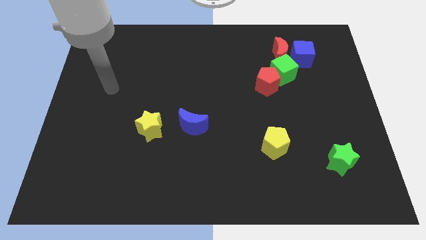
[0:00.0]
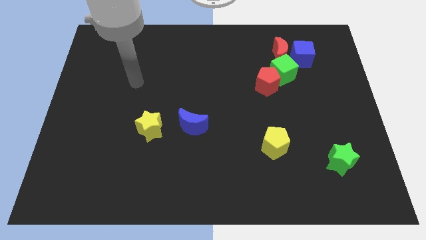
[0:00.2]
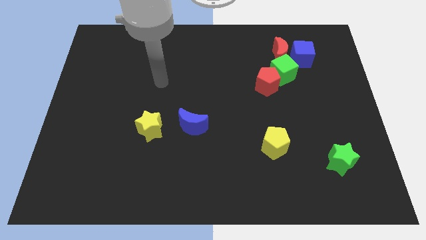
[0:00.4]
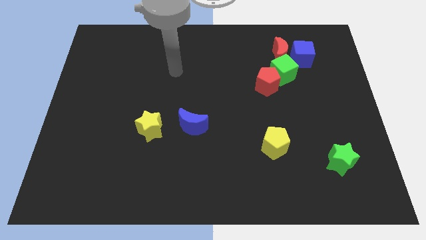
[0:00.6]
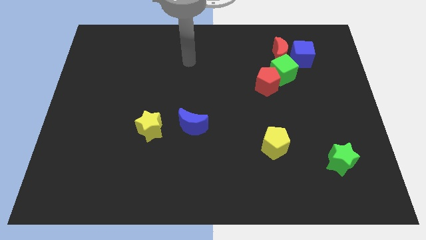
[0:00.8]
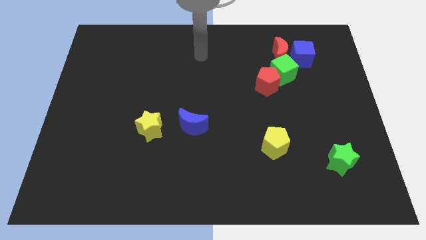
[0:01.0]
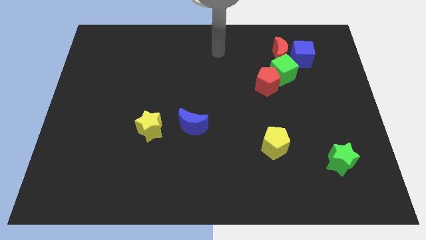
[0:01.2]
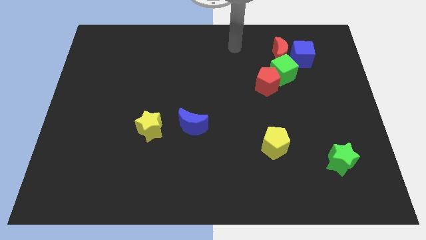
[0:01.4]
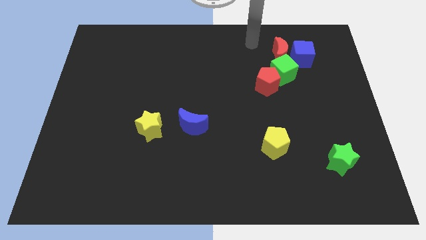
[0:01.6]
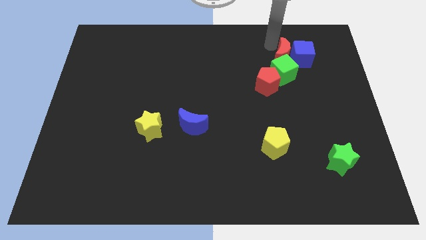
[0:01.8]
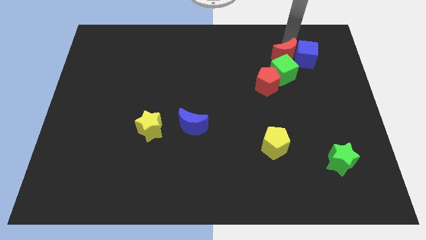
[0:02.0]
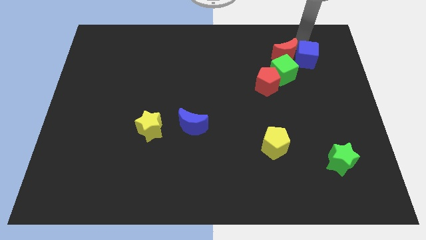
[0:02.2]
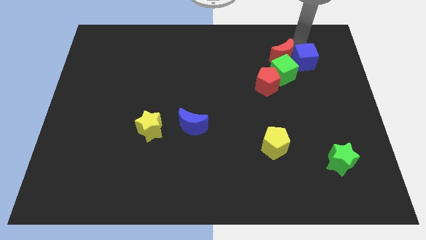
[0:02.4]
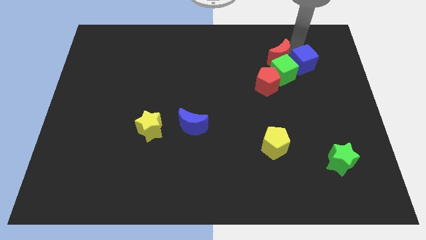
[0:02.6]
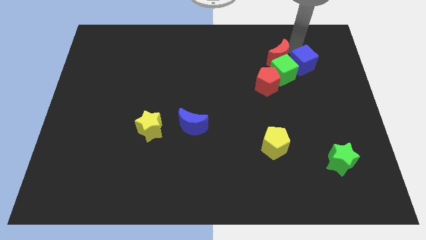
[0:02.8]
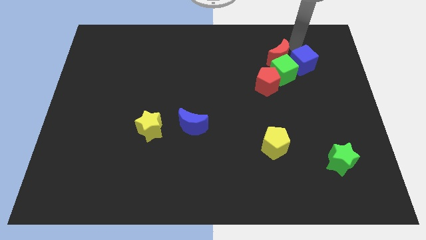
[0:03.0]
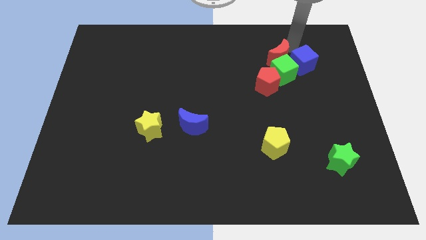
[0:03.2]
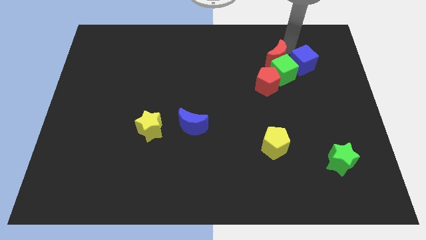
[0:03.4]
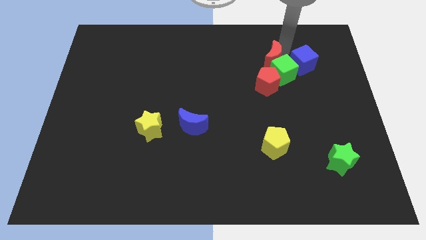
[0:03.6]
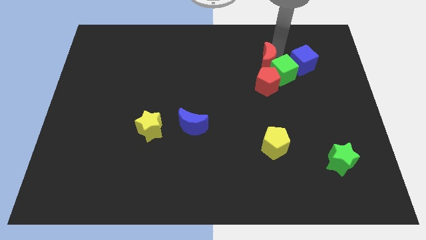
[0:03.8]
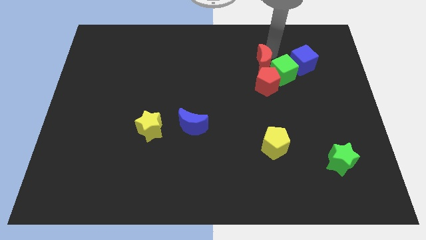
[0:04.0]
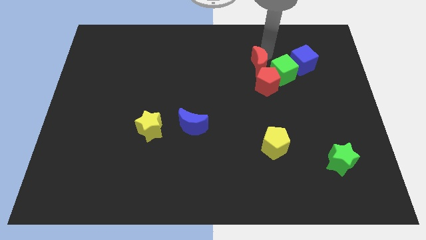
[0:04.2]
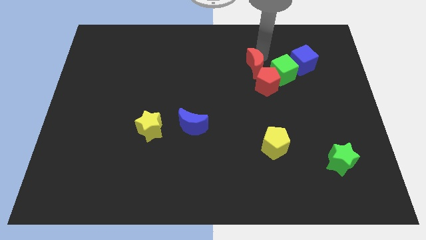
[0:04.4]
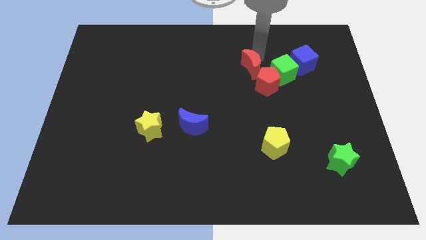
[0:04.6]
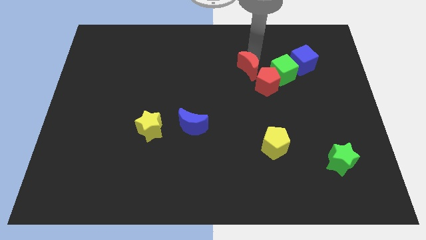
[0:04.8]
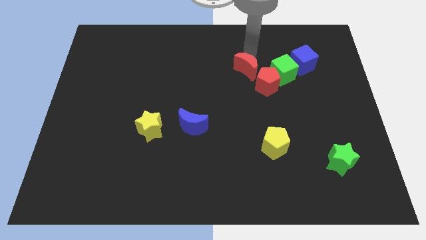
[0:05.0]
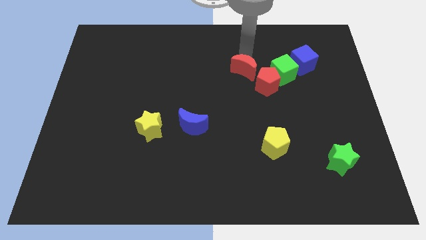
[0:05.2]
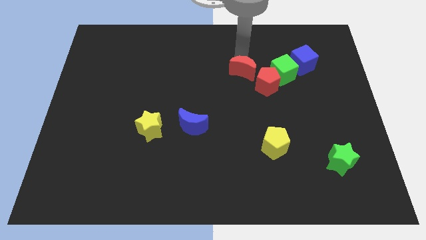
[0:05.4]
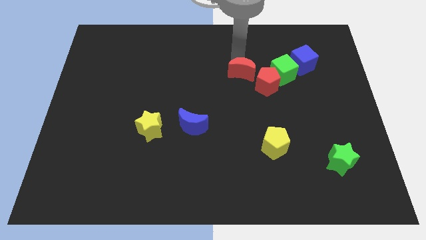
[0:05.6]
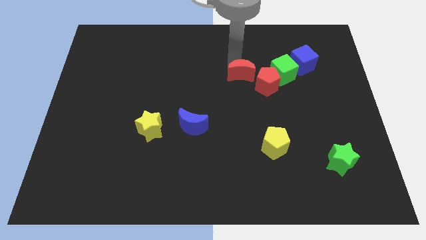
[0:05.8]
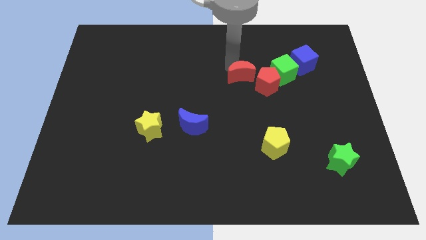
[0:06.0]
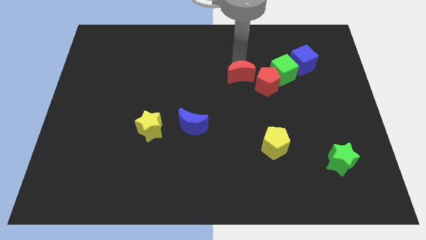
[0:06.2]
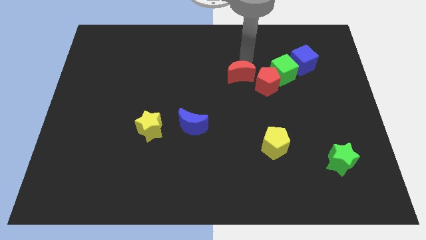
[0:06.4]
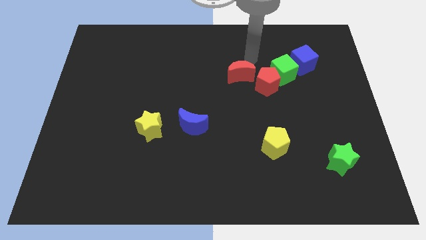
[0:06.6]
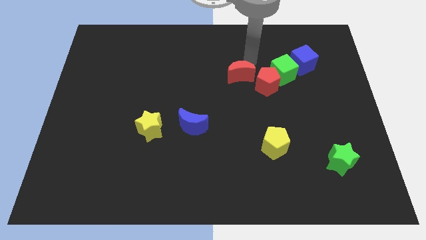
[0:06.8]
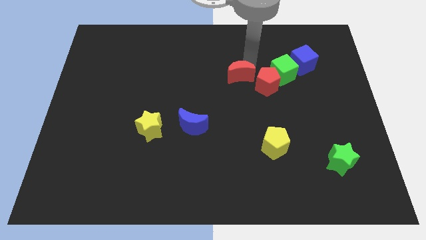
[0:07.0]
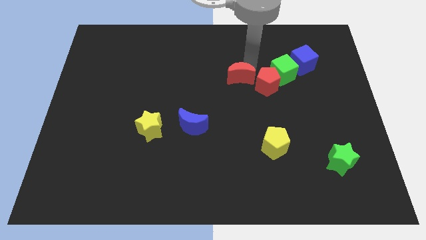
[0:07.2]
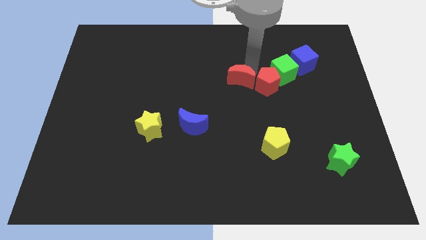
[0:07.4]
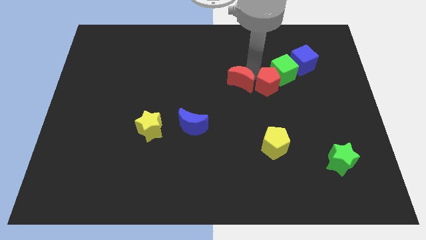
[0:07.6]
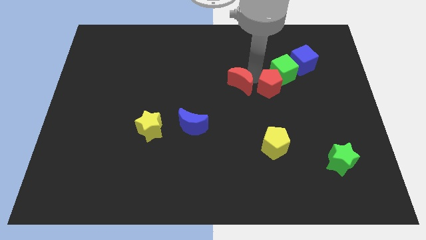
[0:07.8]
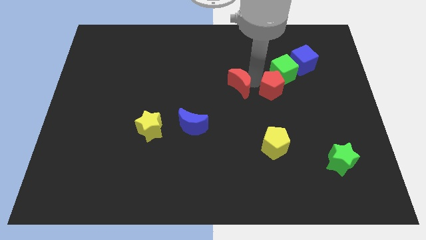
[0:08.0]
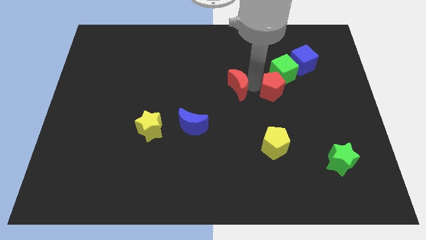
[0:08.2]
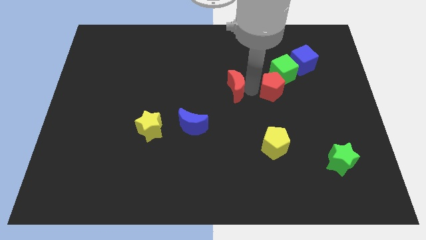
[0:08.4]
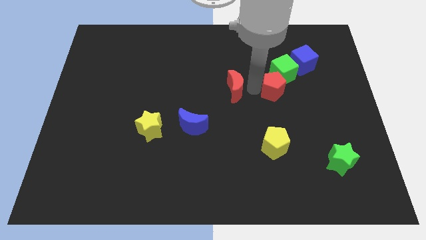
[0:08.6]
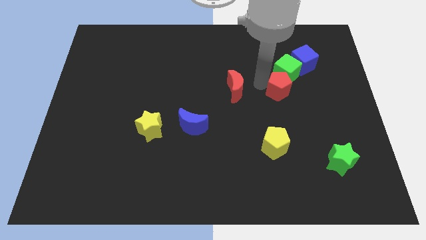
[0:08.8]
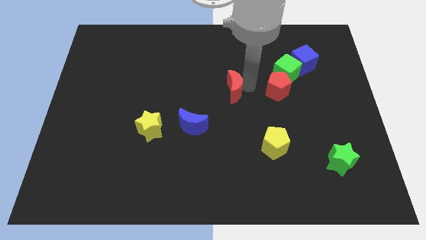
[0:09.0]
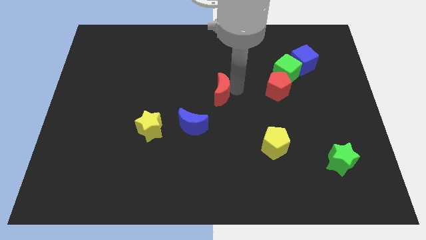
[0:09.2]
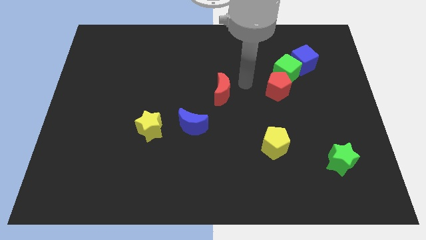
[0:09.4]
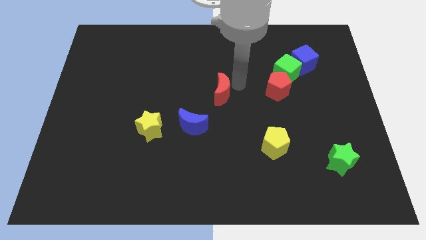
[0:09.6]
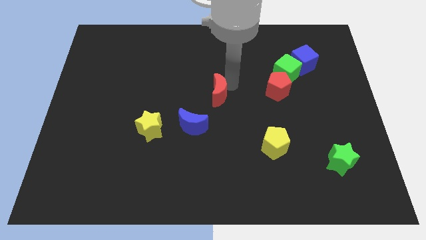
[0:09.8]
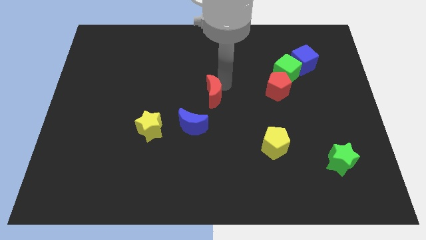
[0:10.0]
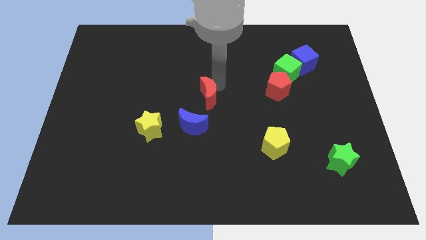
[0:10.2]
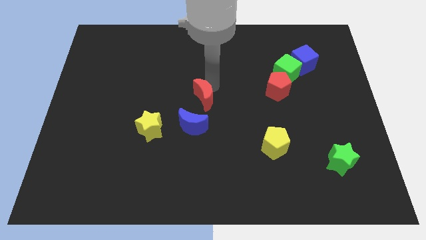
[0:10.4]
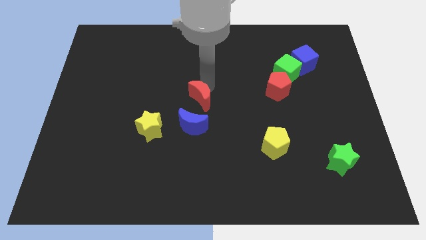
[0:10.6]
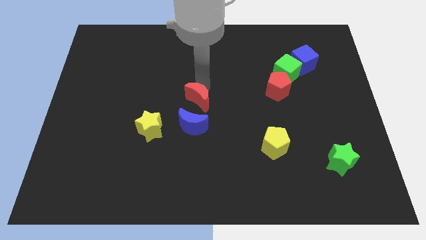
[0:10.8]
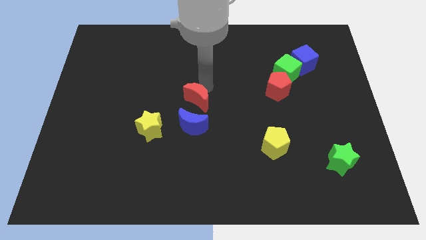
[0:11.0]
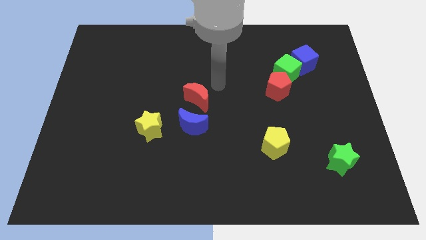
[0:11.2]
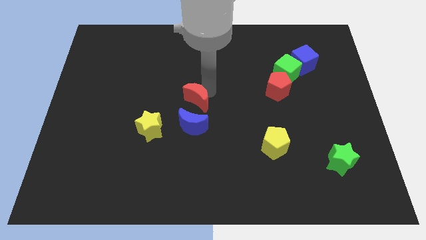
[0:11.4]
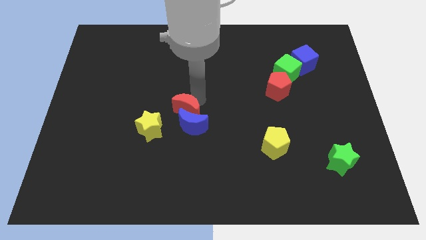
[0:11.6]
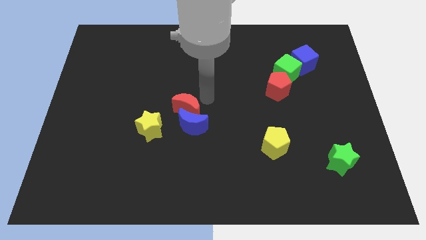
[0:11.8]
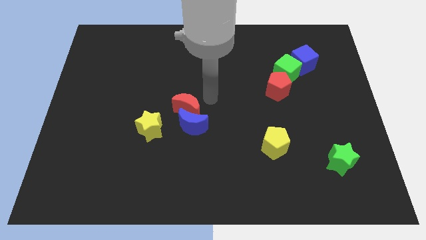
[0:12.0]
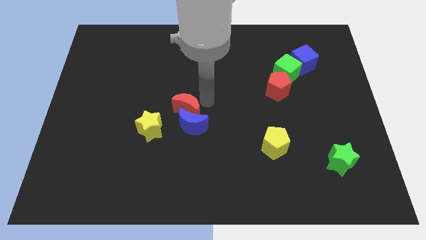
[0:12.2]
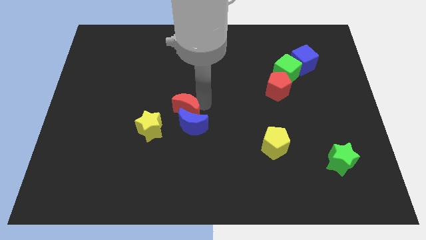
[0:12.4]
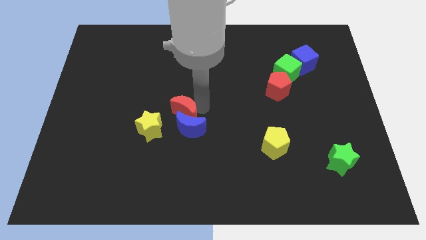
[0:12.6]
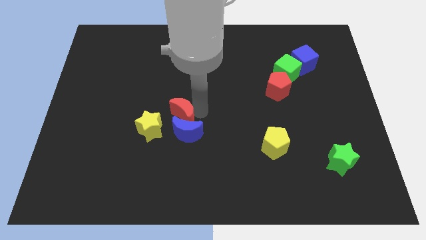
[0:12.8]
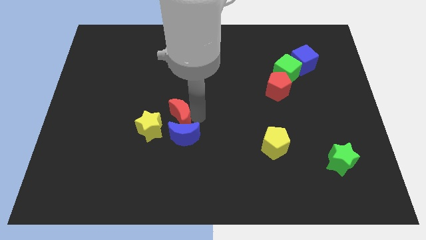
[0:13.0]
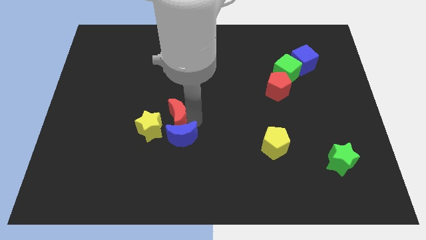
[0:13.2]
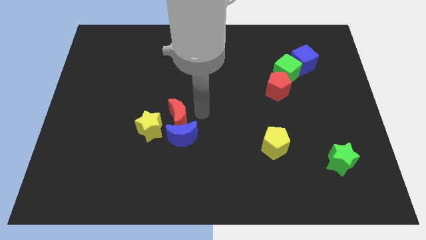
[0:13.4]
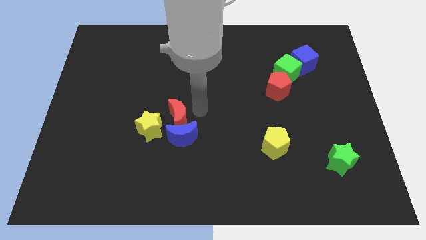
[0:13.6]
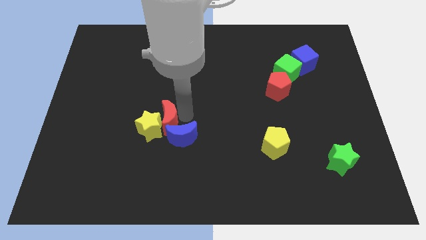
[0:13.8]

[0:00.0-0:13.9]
put the red moon close to the yellow star

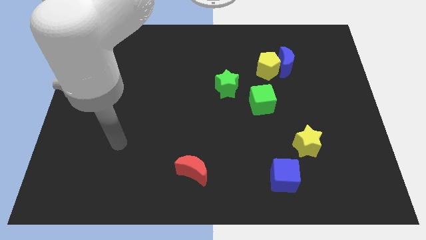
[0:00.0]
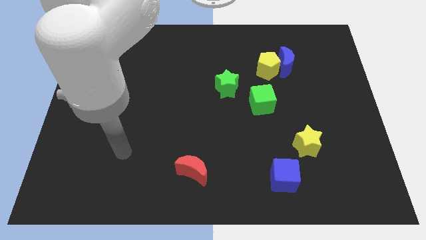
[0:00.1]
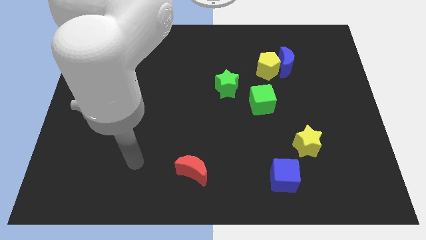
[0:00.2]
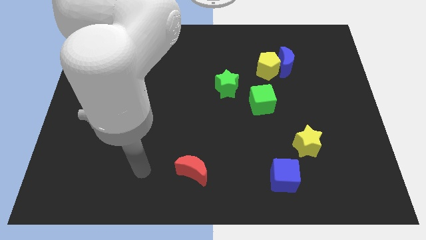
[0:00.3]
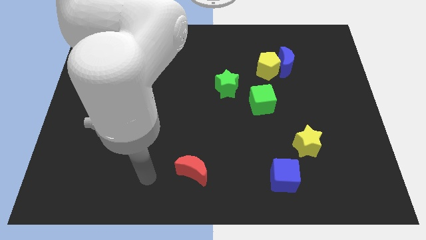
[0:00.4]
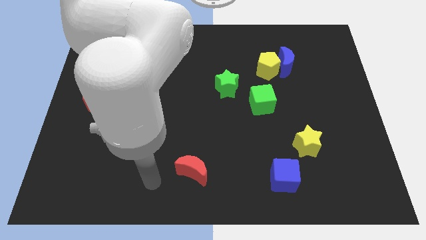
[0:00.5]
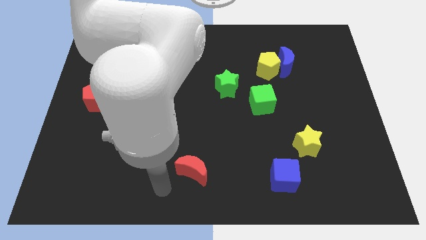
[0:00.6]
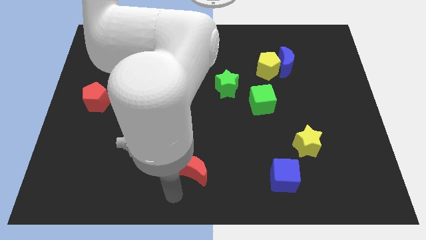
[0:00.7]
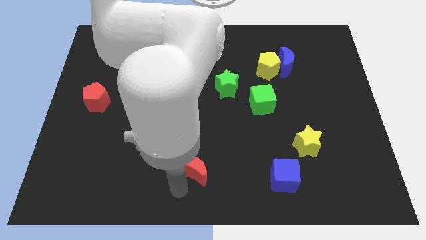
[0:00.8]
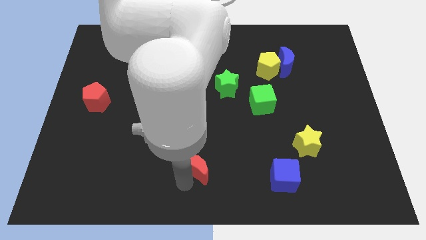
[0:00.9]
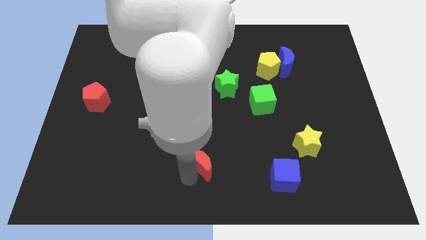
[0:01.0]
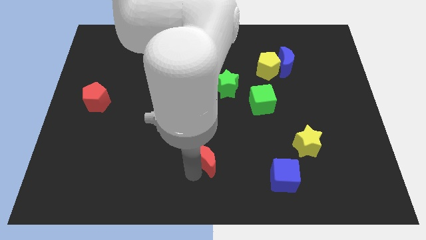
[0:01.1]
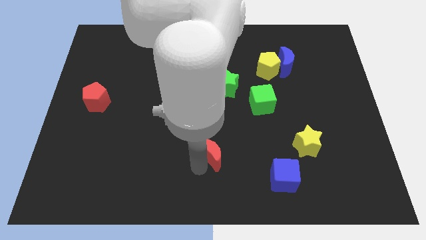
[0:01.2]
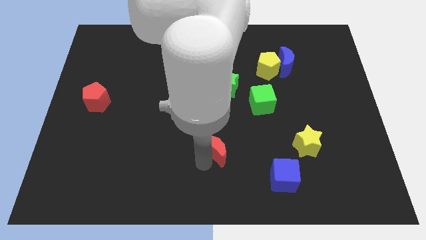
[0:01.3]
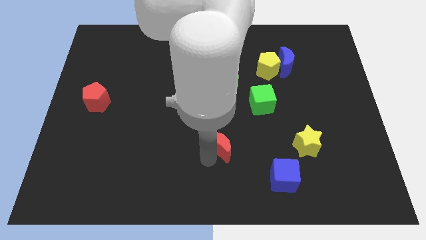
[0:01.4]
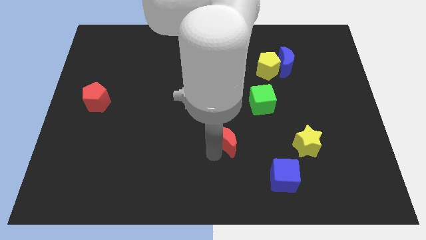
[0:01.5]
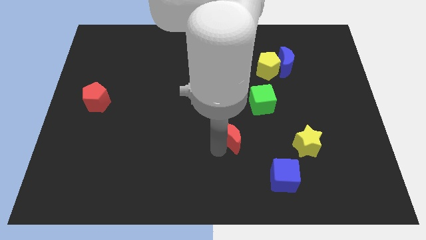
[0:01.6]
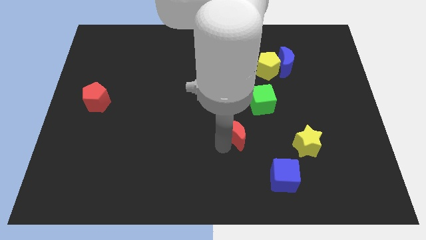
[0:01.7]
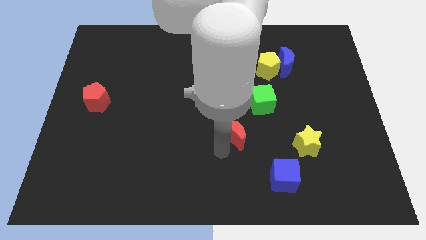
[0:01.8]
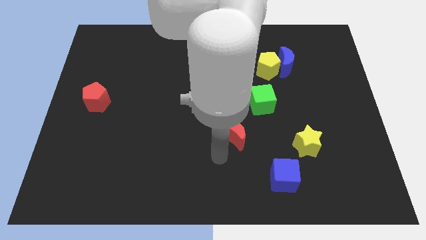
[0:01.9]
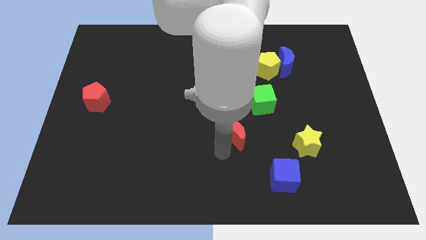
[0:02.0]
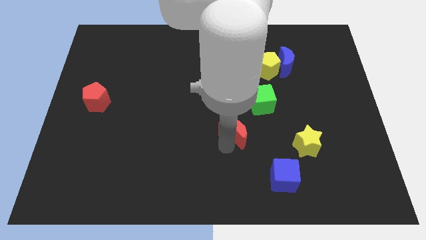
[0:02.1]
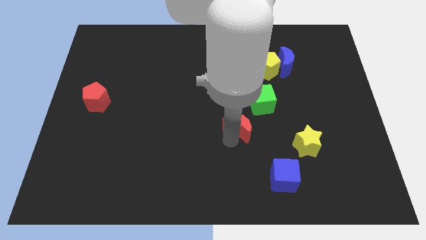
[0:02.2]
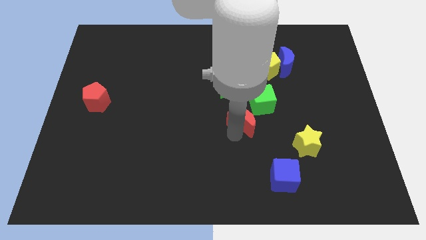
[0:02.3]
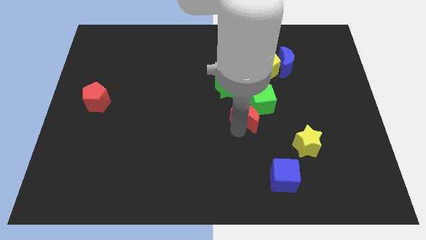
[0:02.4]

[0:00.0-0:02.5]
move the red moon towards the green cube
